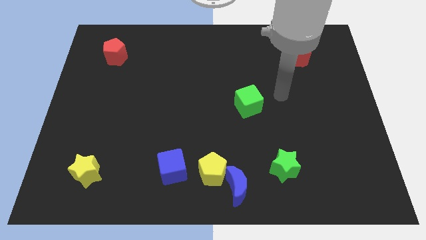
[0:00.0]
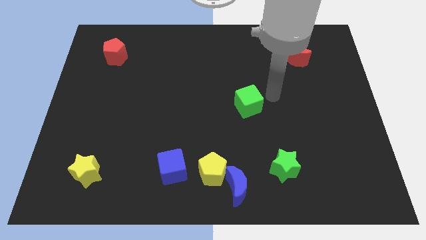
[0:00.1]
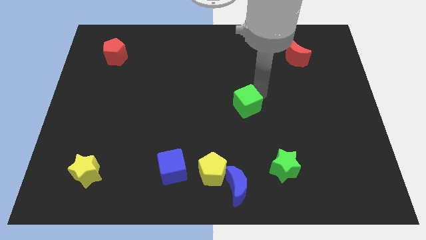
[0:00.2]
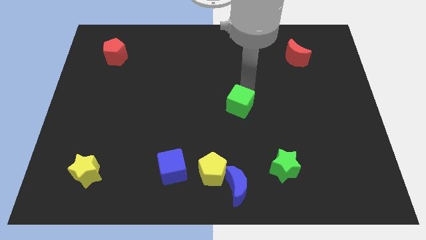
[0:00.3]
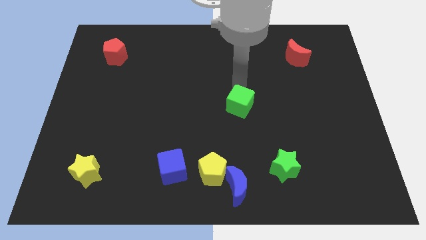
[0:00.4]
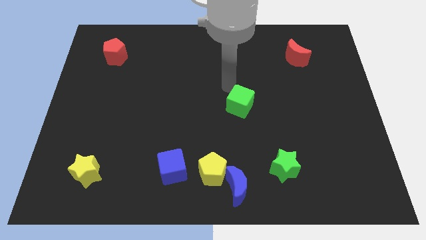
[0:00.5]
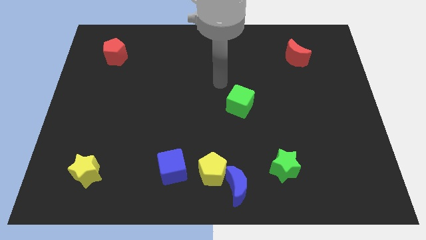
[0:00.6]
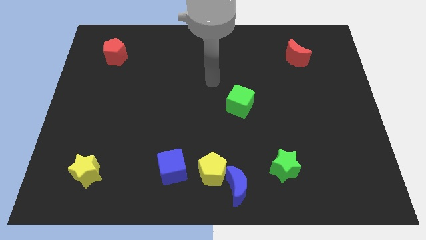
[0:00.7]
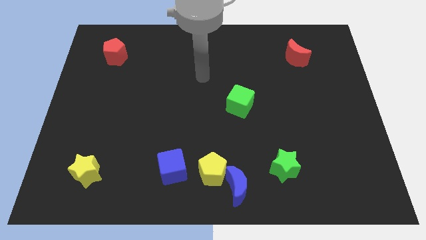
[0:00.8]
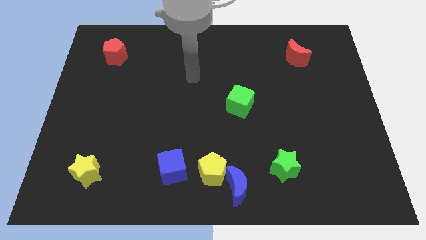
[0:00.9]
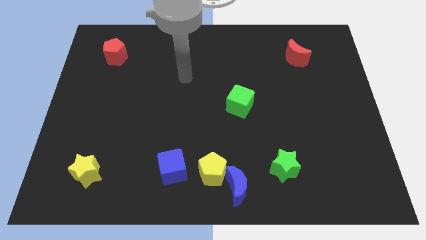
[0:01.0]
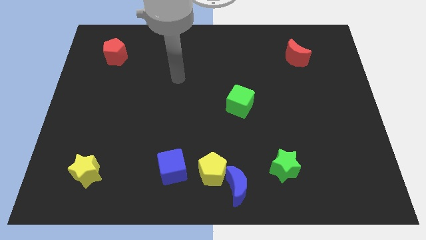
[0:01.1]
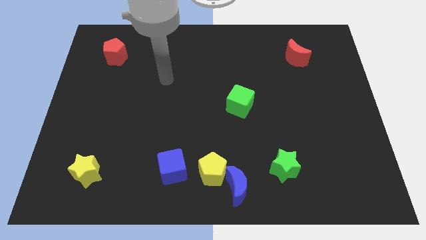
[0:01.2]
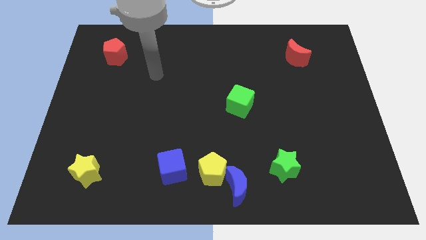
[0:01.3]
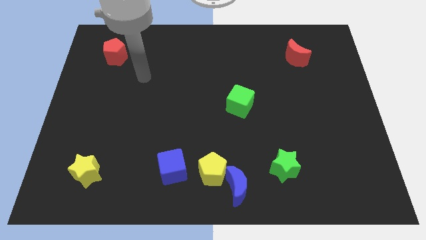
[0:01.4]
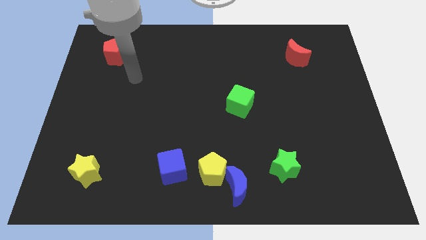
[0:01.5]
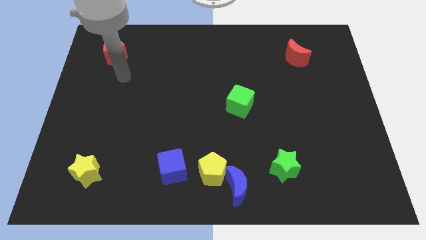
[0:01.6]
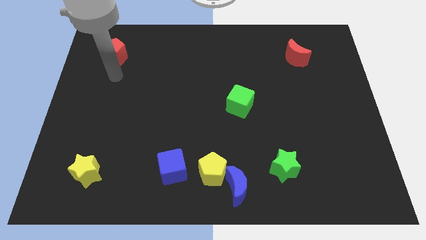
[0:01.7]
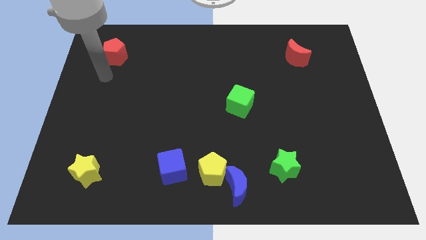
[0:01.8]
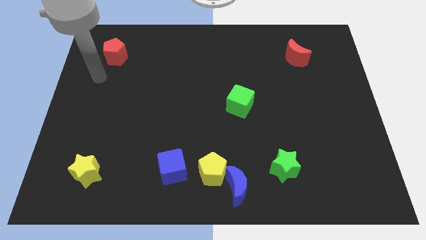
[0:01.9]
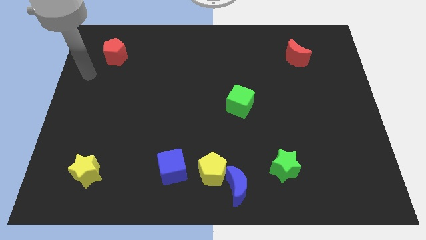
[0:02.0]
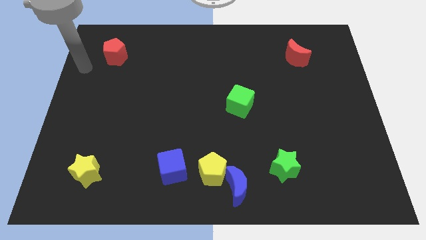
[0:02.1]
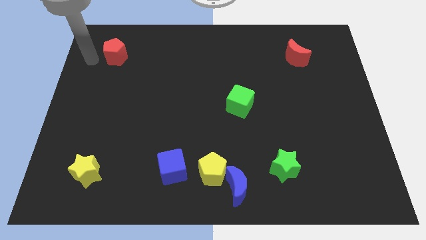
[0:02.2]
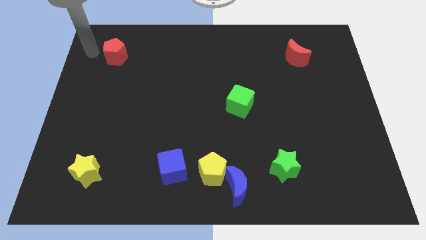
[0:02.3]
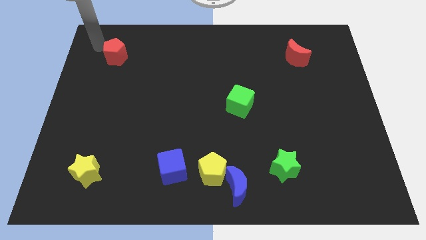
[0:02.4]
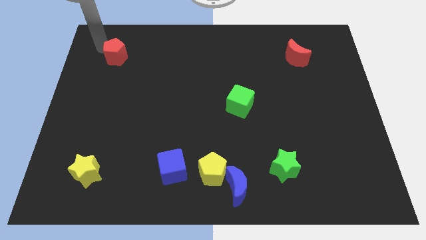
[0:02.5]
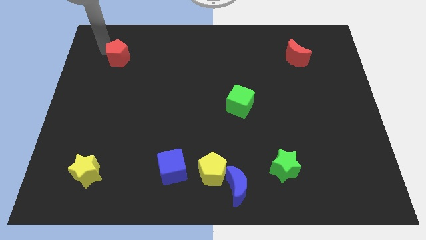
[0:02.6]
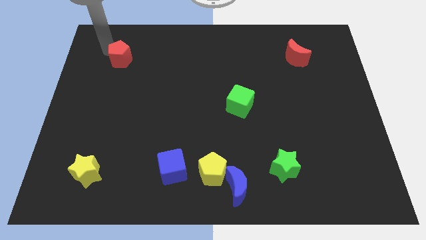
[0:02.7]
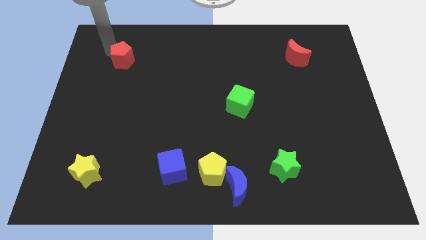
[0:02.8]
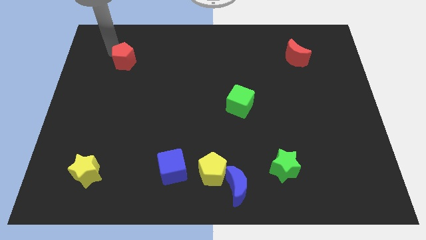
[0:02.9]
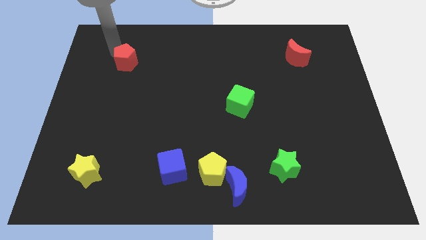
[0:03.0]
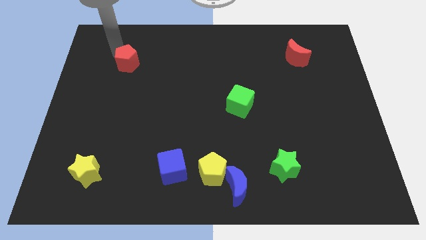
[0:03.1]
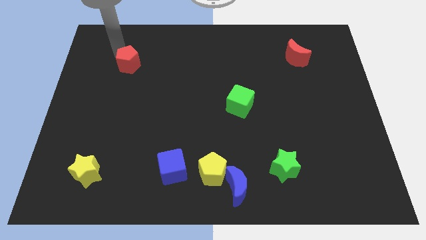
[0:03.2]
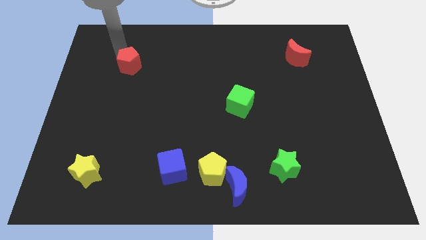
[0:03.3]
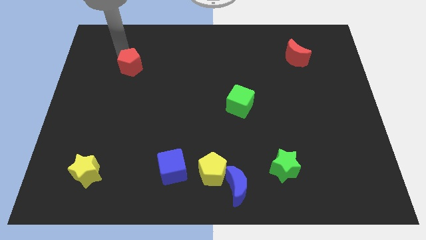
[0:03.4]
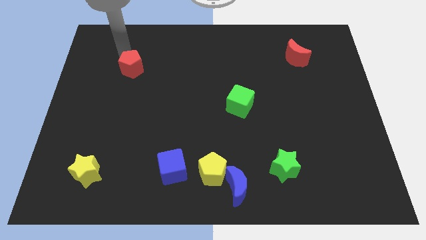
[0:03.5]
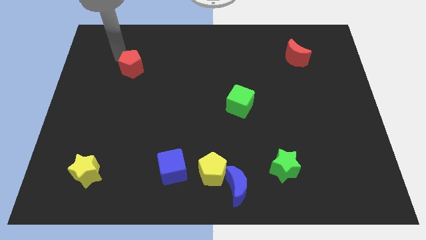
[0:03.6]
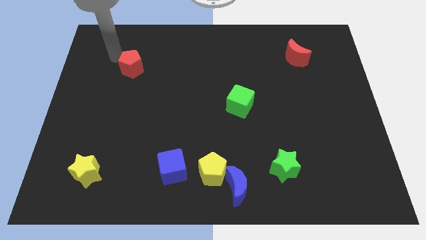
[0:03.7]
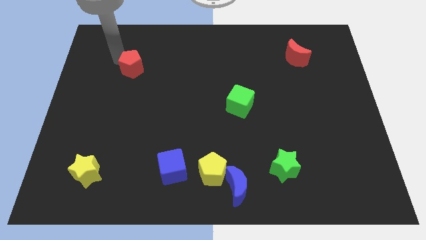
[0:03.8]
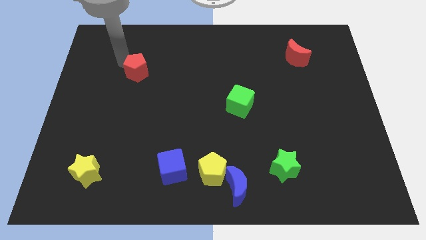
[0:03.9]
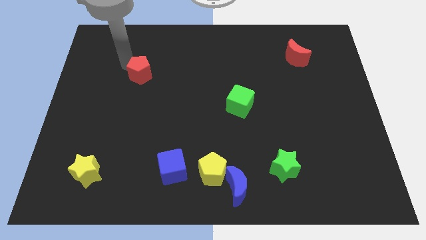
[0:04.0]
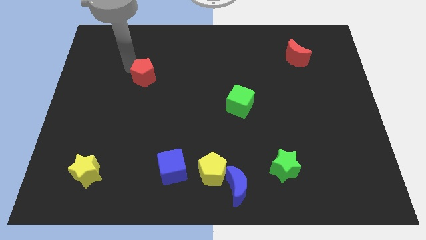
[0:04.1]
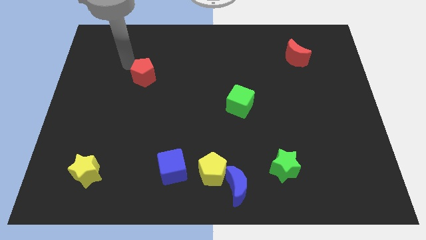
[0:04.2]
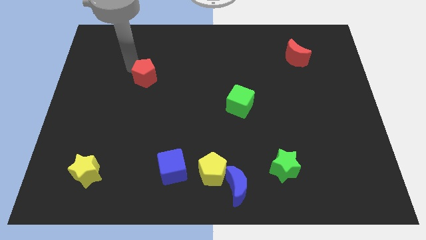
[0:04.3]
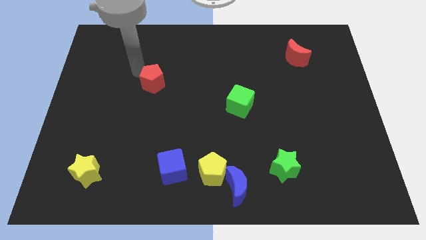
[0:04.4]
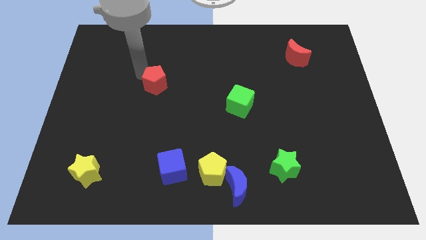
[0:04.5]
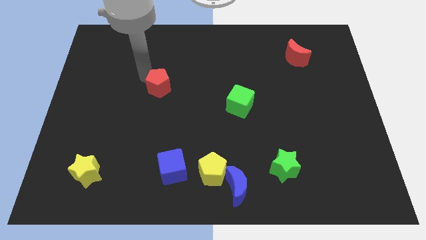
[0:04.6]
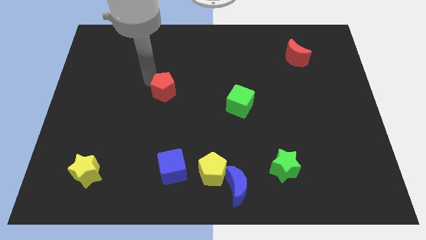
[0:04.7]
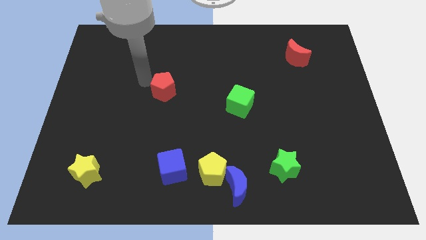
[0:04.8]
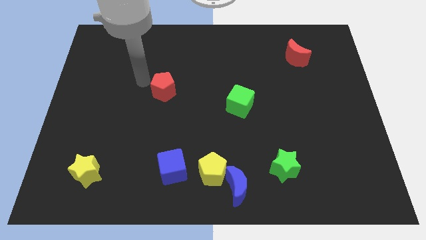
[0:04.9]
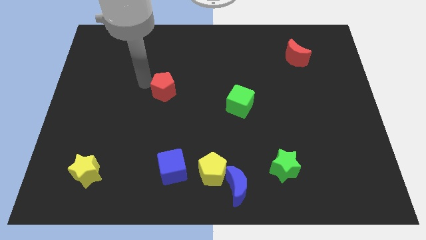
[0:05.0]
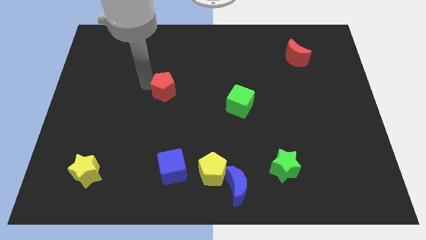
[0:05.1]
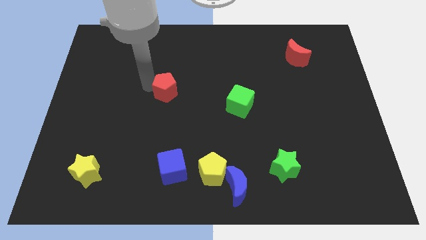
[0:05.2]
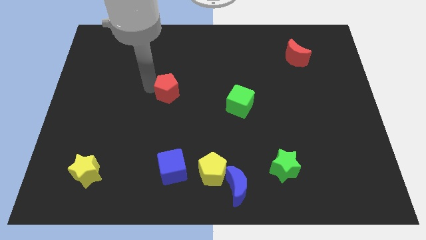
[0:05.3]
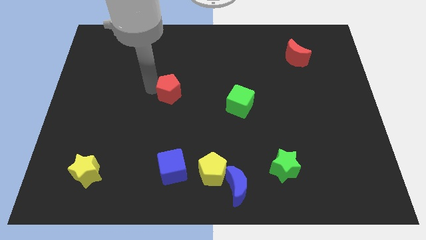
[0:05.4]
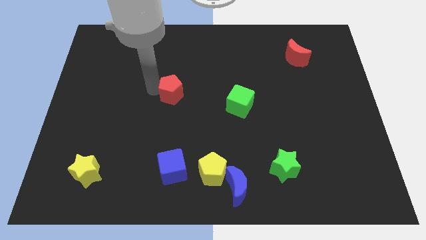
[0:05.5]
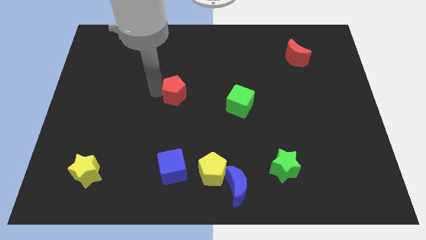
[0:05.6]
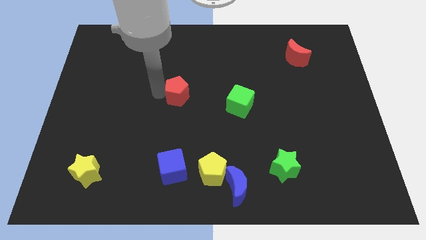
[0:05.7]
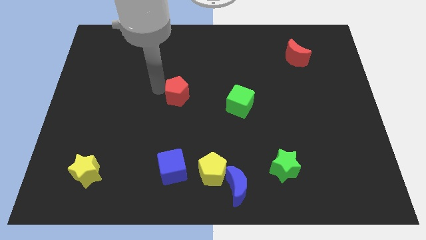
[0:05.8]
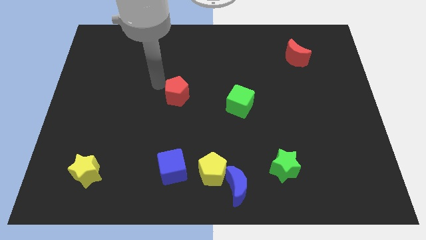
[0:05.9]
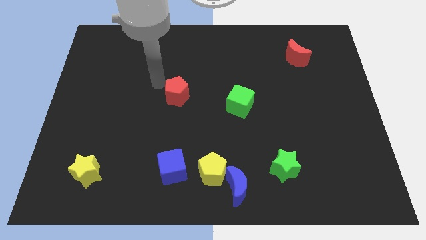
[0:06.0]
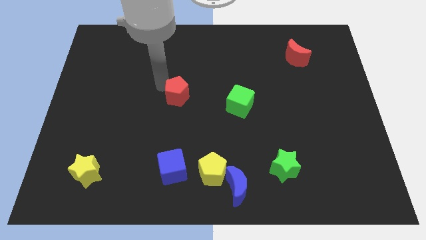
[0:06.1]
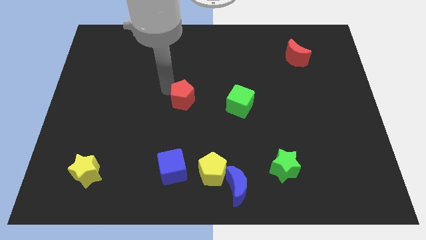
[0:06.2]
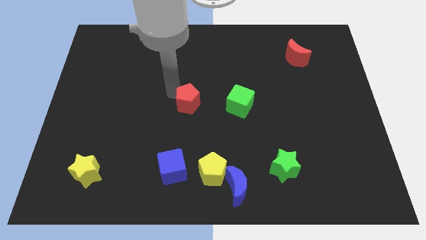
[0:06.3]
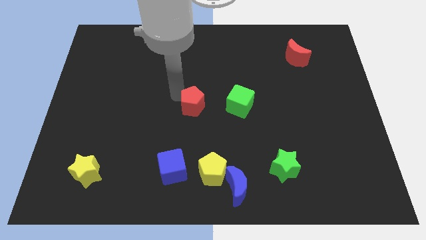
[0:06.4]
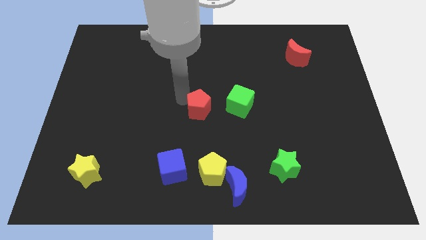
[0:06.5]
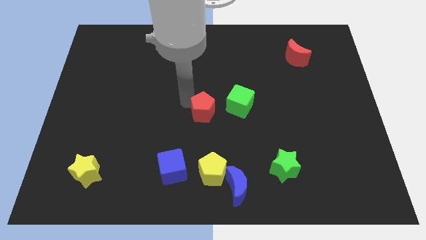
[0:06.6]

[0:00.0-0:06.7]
put the red pentagon diagonally down and to the left of the green cube
